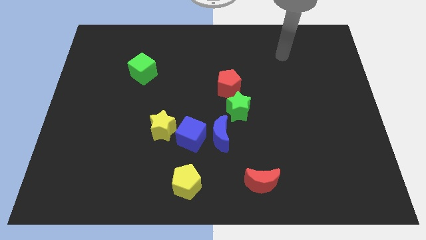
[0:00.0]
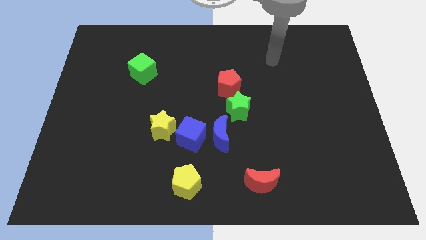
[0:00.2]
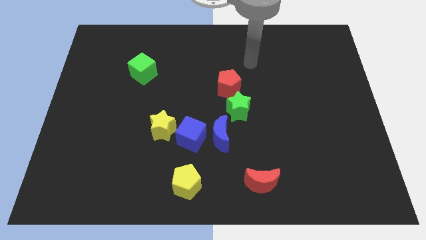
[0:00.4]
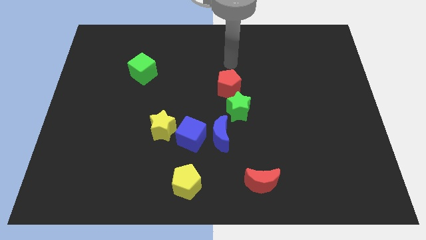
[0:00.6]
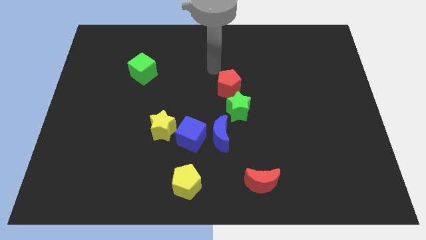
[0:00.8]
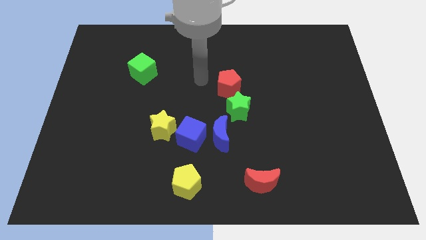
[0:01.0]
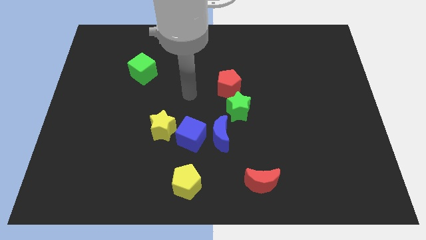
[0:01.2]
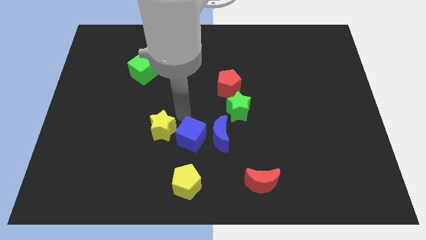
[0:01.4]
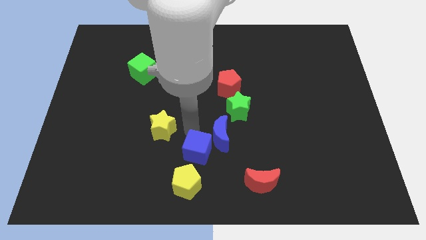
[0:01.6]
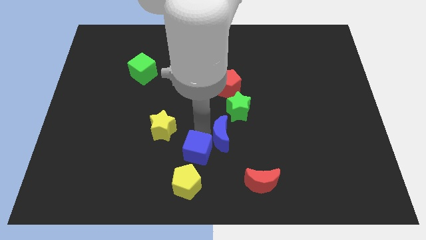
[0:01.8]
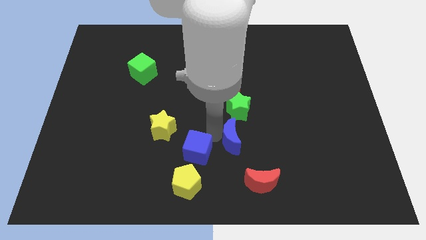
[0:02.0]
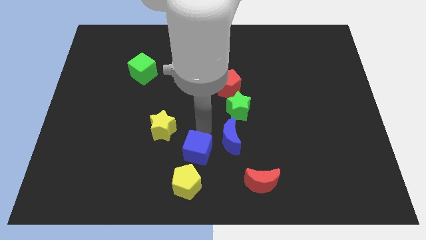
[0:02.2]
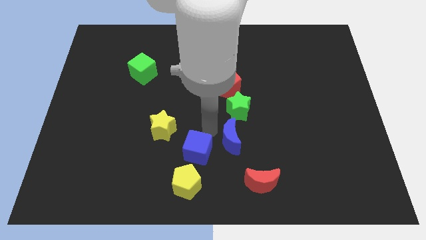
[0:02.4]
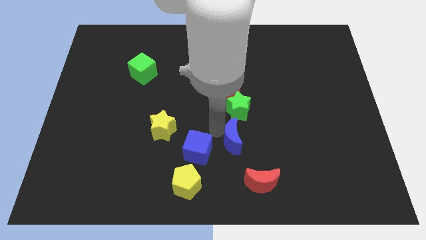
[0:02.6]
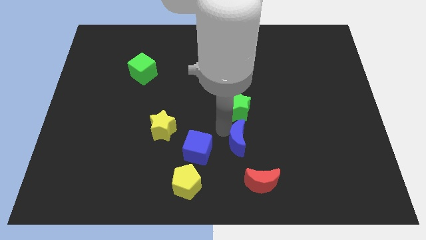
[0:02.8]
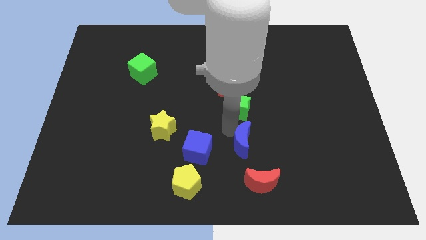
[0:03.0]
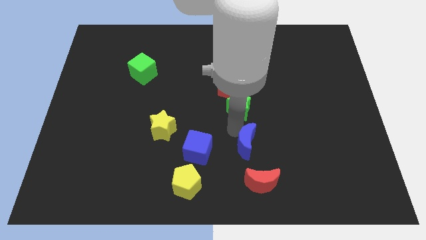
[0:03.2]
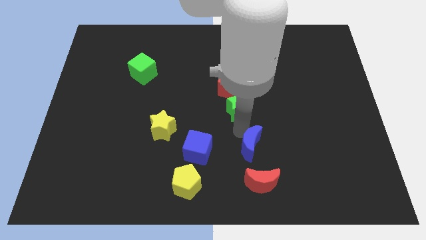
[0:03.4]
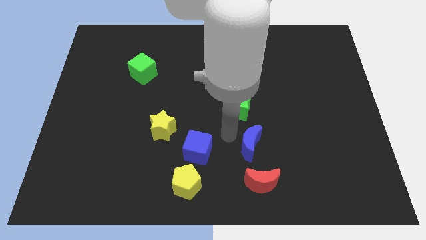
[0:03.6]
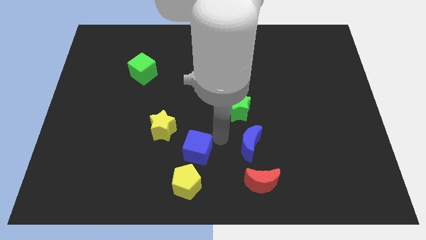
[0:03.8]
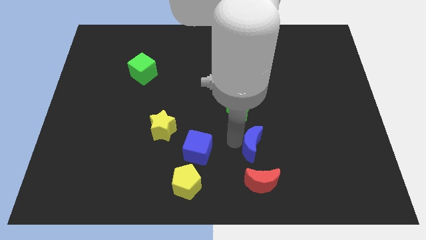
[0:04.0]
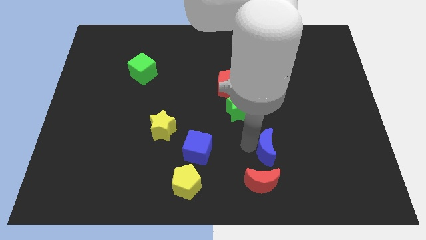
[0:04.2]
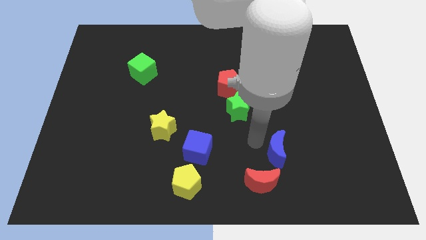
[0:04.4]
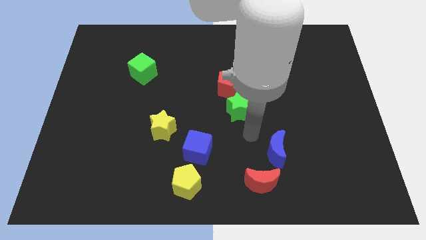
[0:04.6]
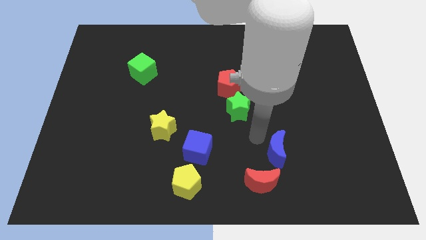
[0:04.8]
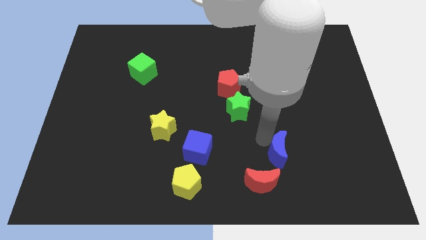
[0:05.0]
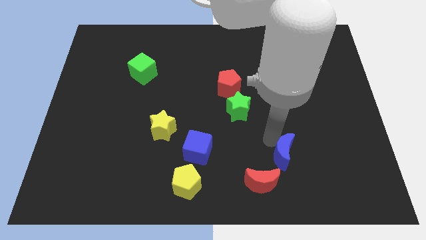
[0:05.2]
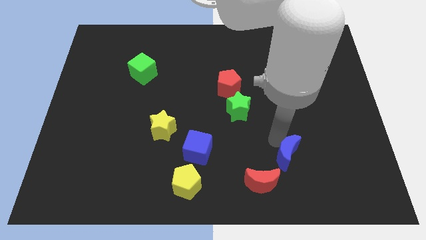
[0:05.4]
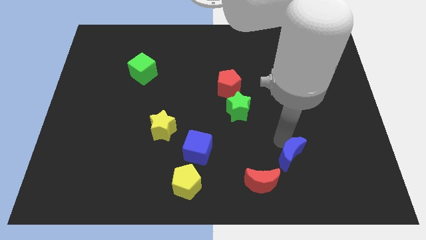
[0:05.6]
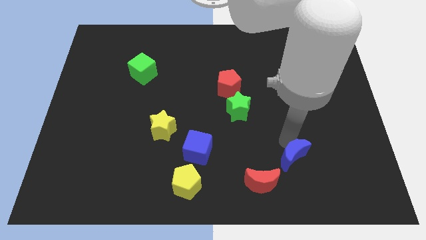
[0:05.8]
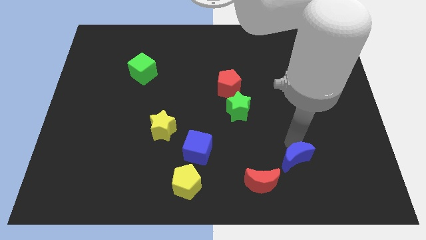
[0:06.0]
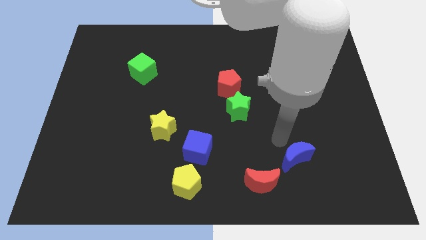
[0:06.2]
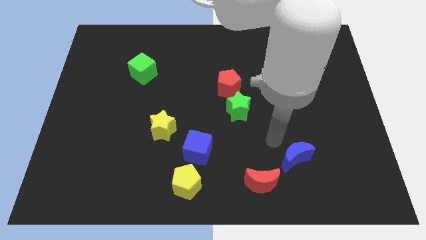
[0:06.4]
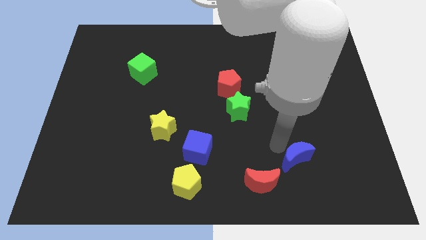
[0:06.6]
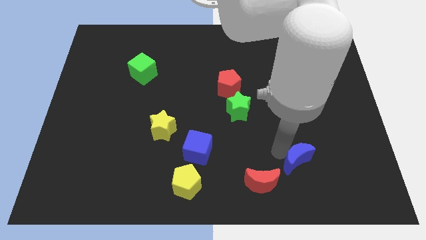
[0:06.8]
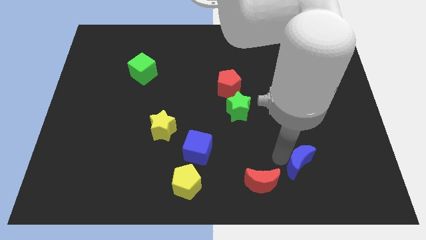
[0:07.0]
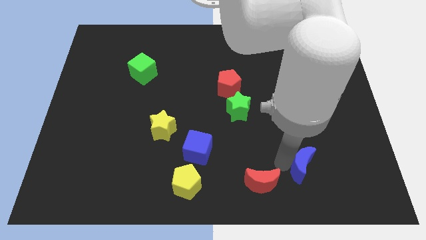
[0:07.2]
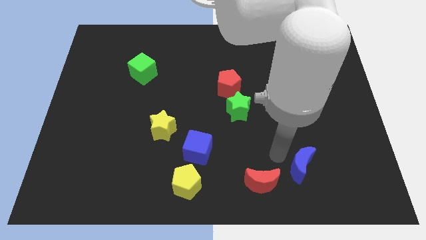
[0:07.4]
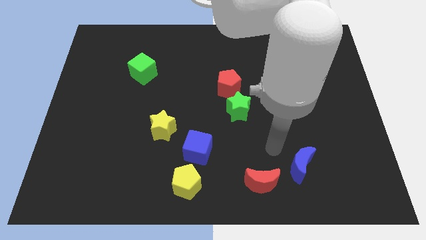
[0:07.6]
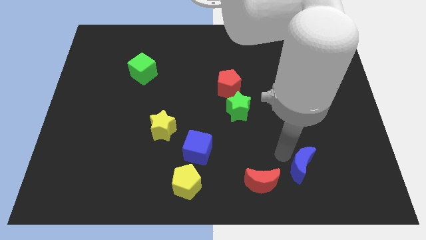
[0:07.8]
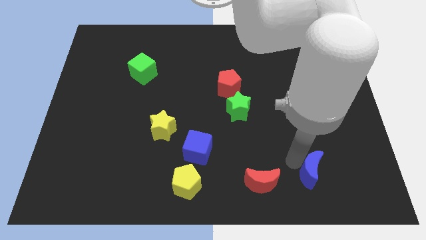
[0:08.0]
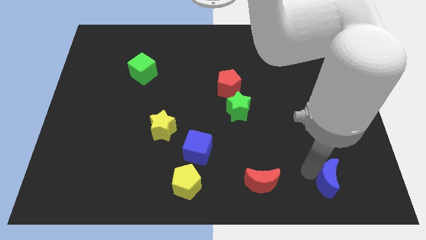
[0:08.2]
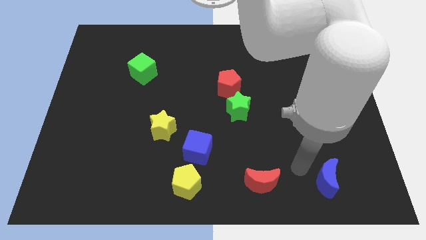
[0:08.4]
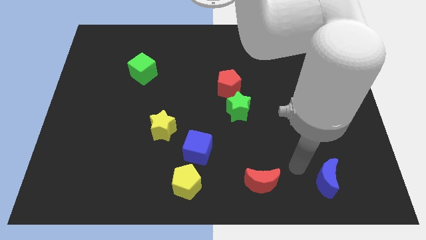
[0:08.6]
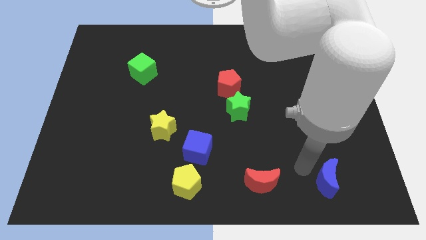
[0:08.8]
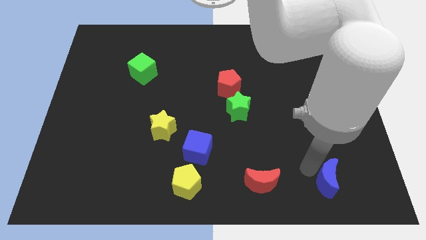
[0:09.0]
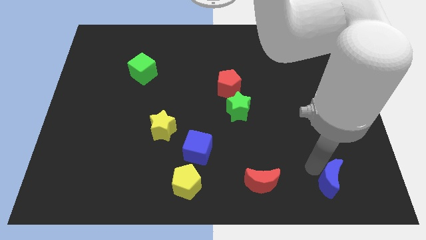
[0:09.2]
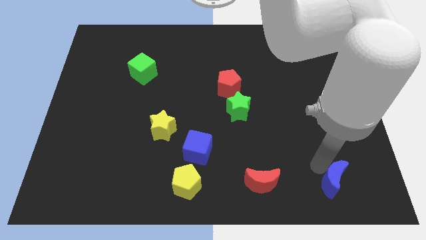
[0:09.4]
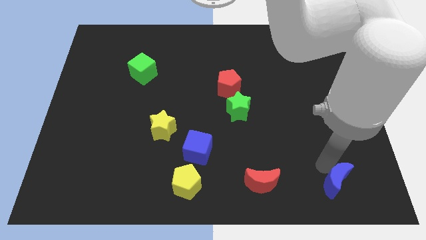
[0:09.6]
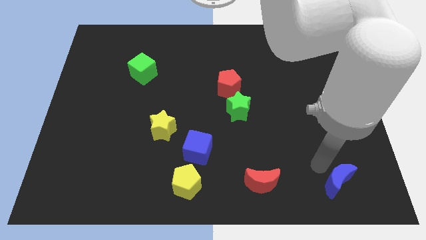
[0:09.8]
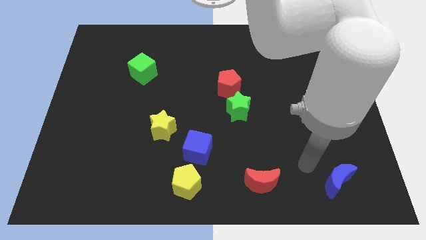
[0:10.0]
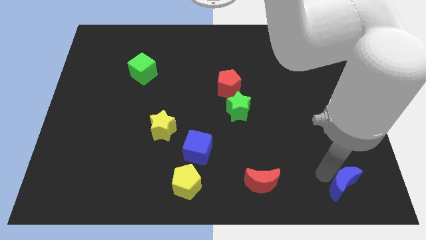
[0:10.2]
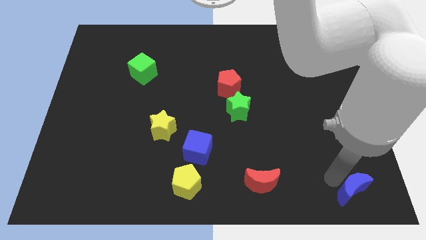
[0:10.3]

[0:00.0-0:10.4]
slide the blue moon to the bottom right of the board

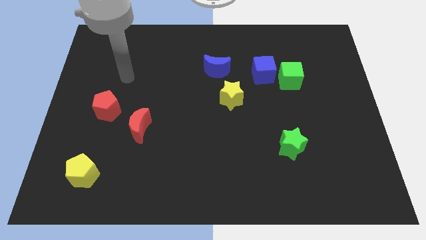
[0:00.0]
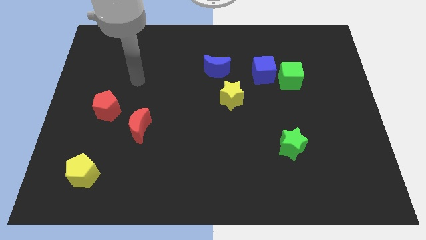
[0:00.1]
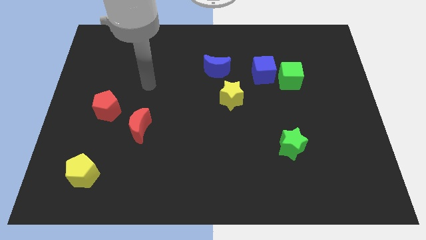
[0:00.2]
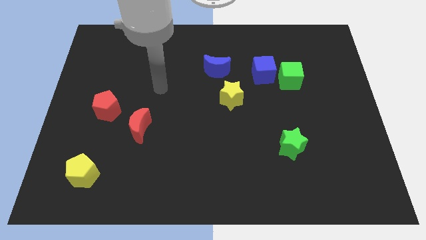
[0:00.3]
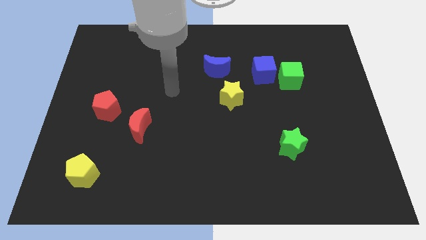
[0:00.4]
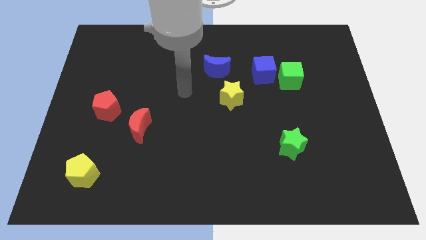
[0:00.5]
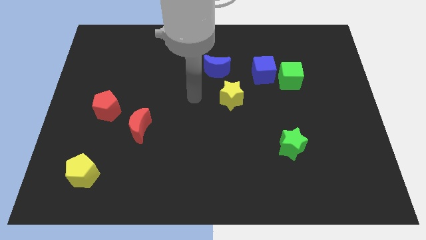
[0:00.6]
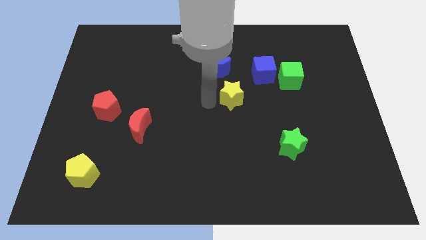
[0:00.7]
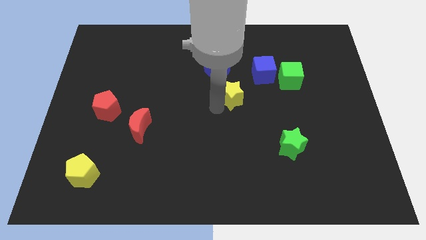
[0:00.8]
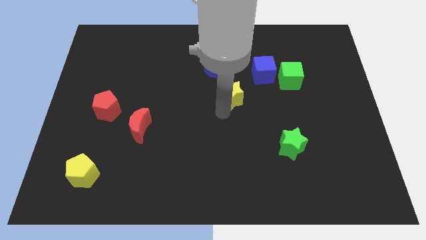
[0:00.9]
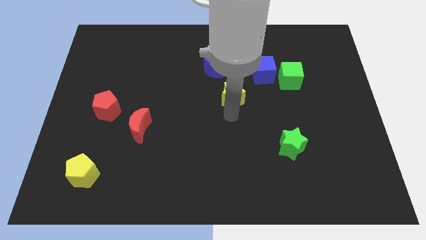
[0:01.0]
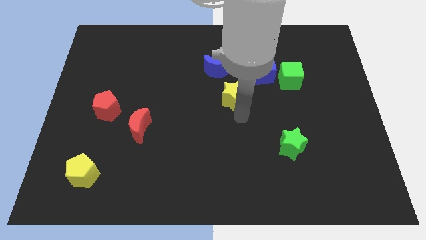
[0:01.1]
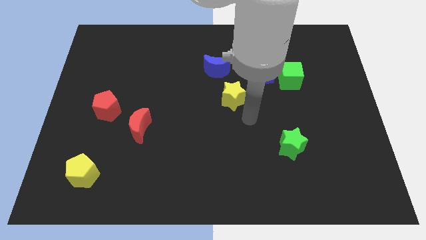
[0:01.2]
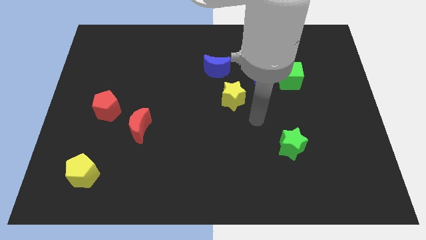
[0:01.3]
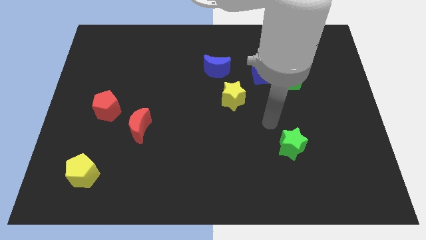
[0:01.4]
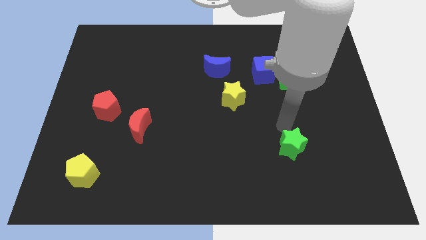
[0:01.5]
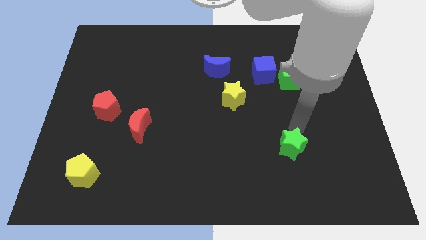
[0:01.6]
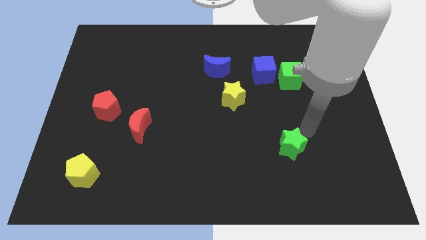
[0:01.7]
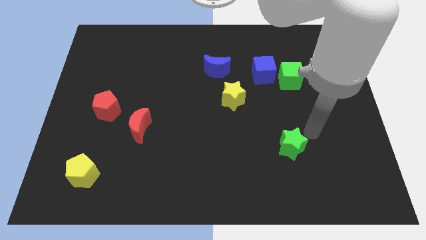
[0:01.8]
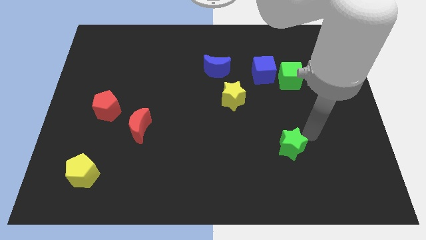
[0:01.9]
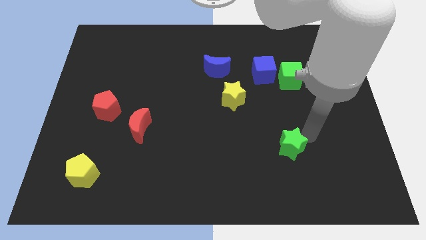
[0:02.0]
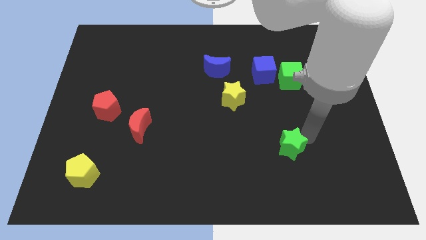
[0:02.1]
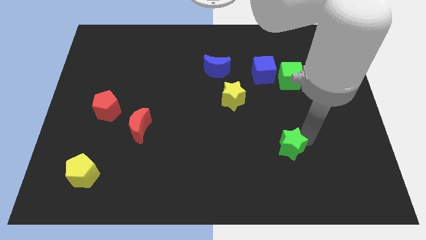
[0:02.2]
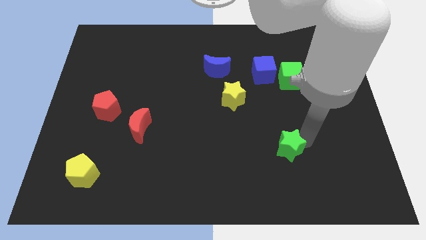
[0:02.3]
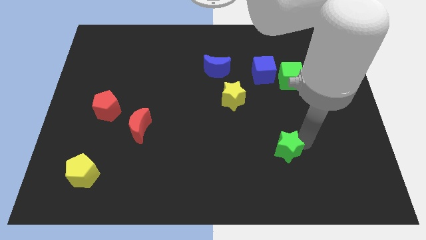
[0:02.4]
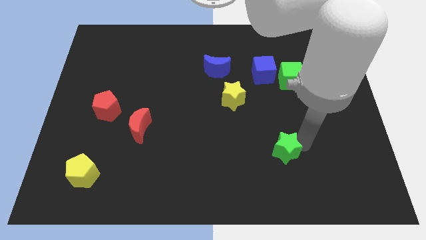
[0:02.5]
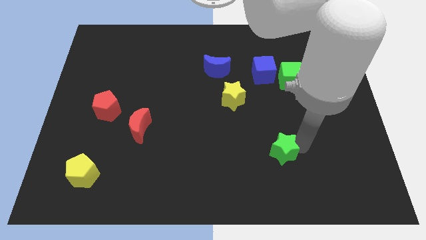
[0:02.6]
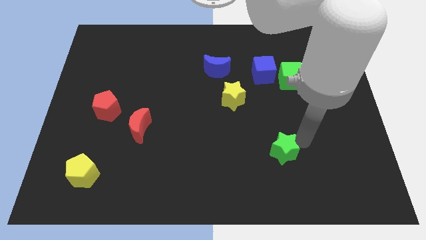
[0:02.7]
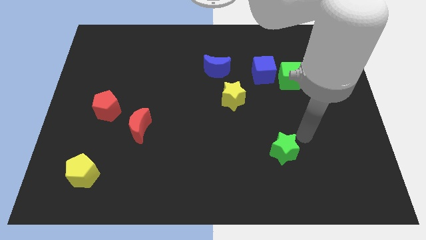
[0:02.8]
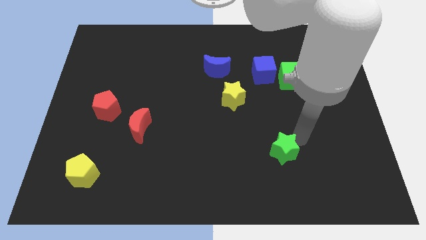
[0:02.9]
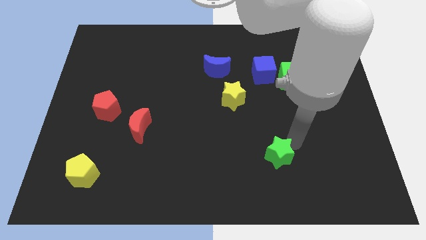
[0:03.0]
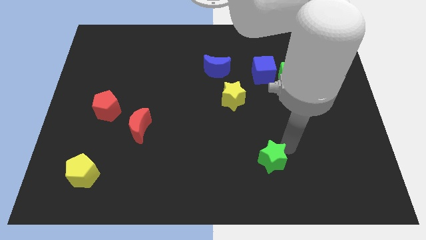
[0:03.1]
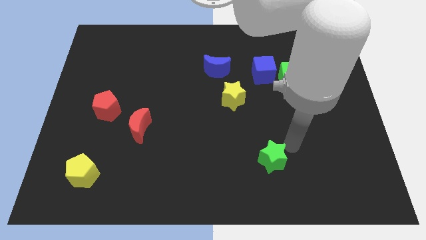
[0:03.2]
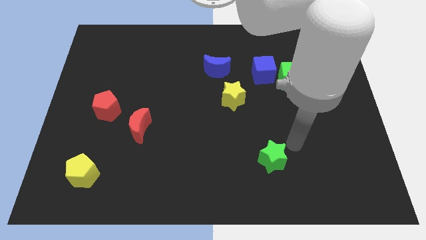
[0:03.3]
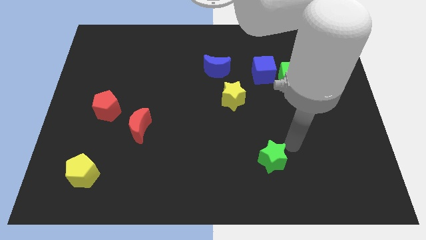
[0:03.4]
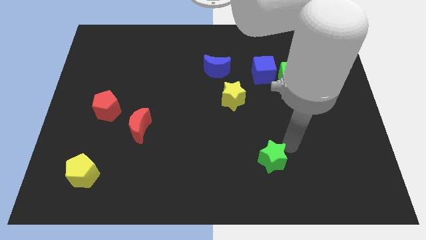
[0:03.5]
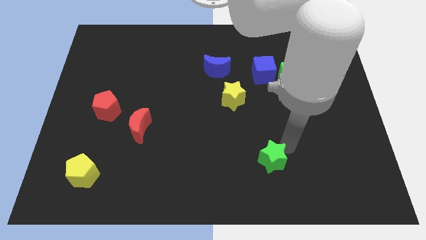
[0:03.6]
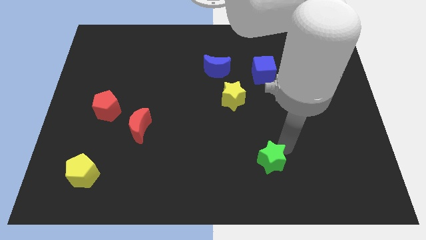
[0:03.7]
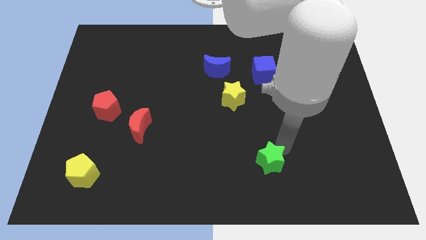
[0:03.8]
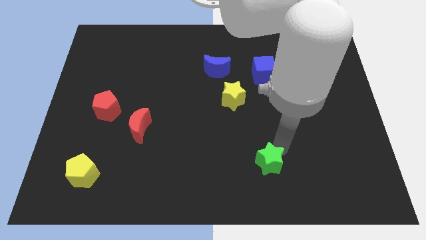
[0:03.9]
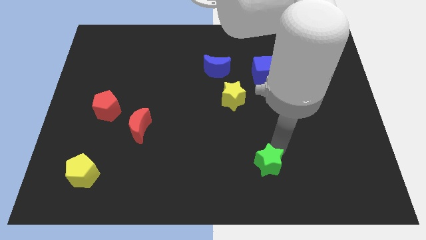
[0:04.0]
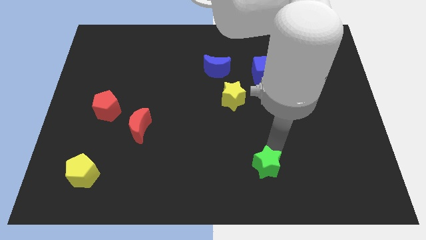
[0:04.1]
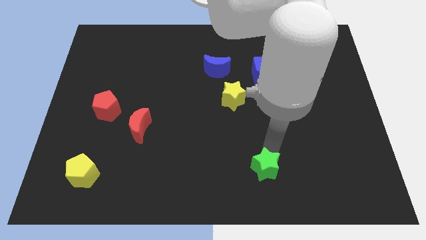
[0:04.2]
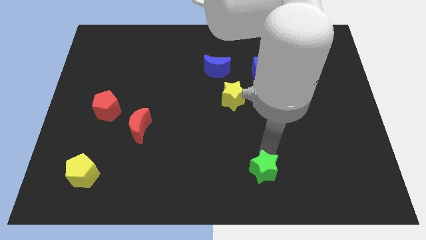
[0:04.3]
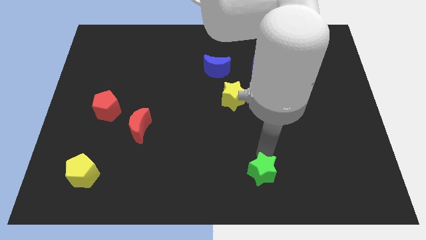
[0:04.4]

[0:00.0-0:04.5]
move the green star to the bottom
